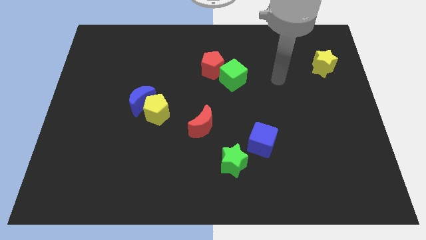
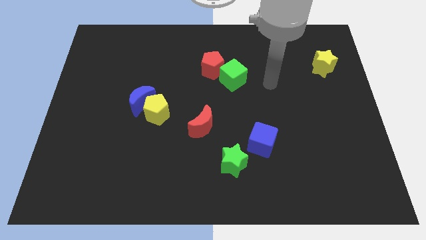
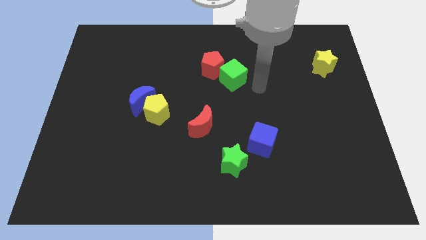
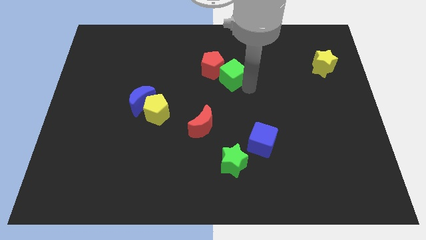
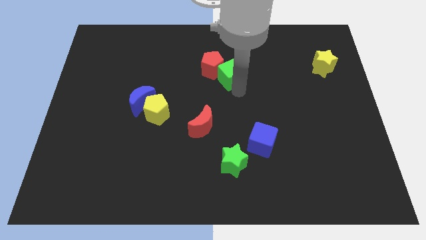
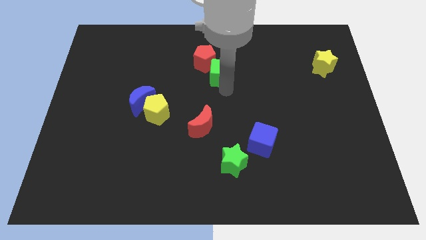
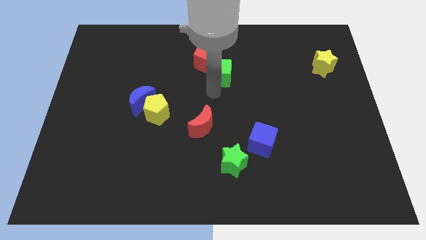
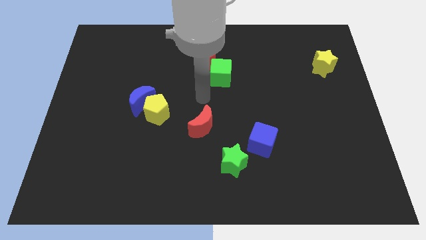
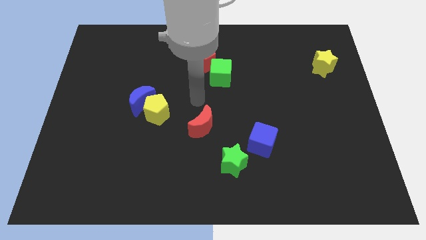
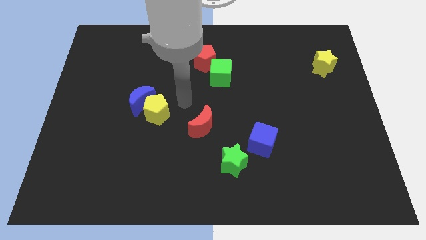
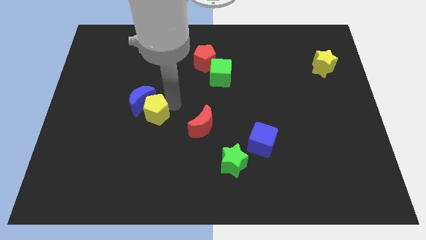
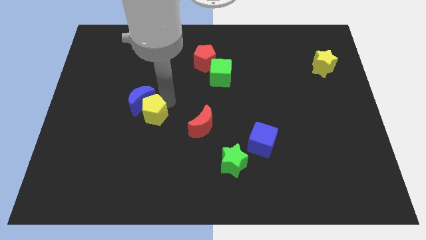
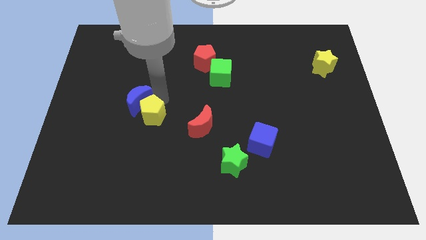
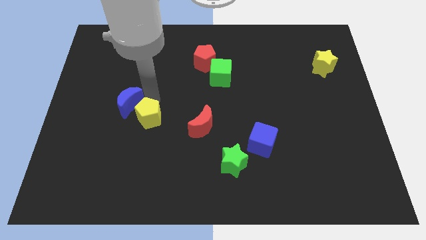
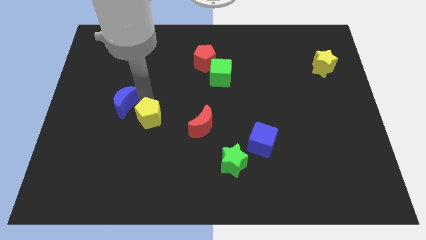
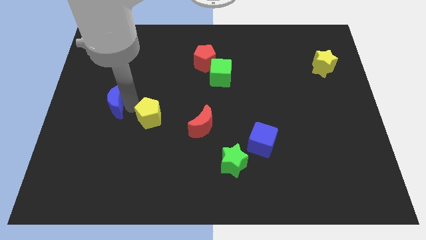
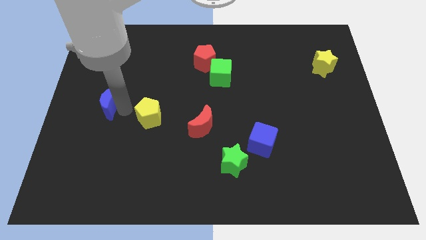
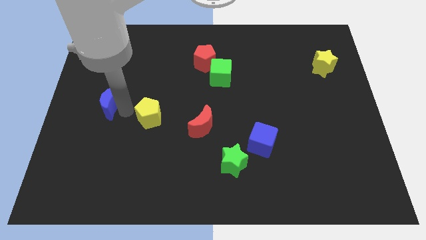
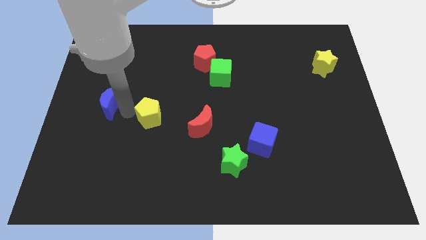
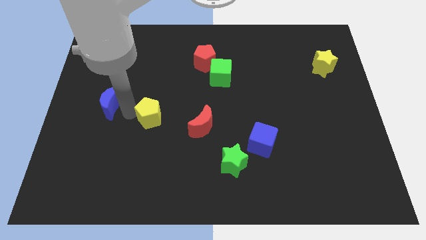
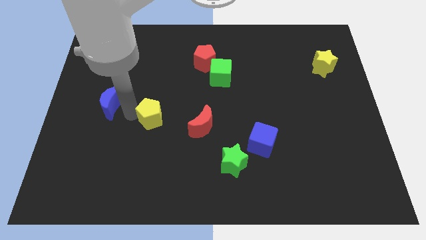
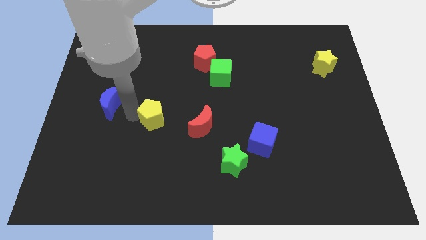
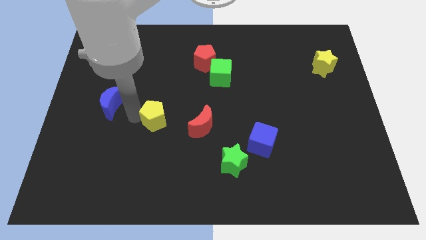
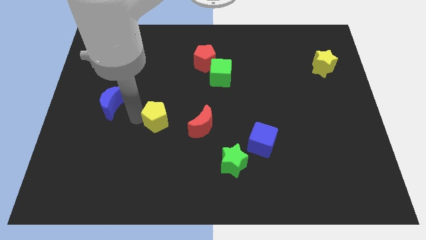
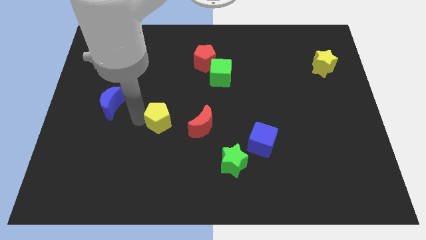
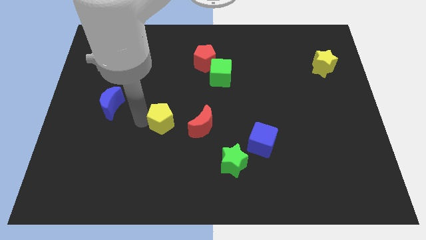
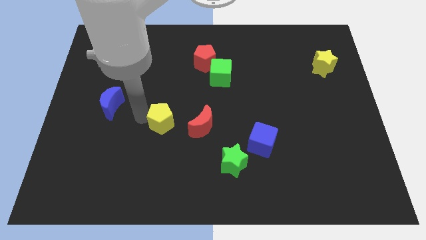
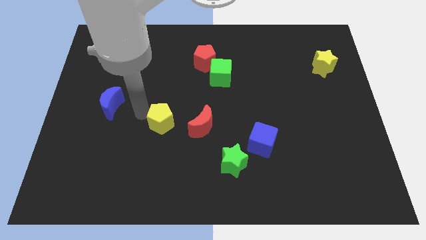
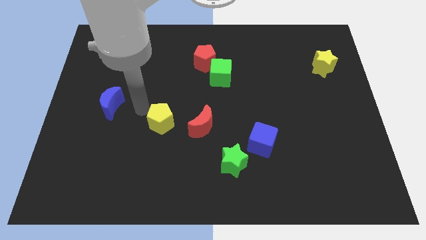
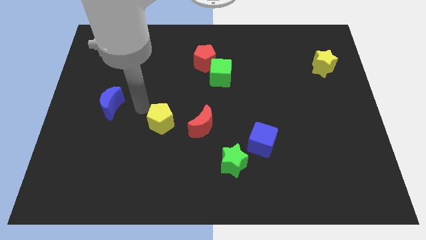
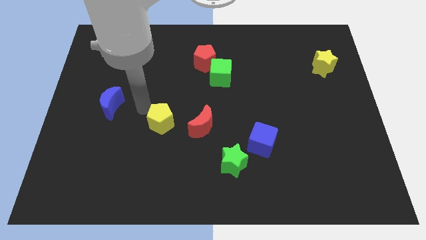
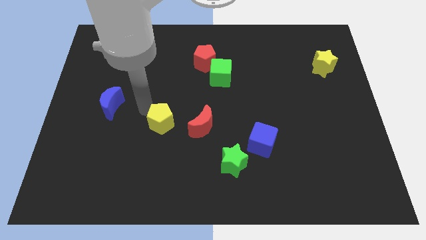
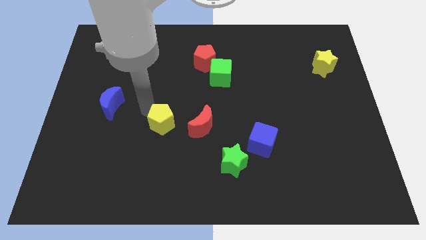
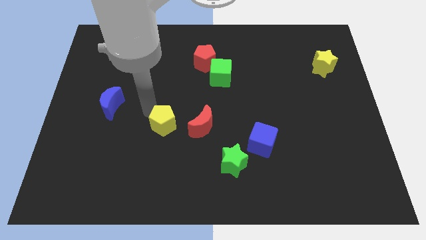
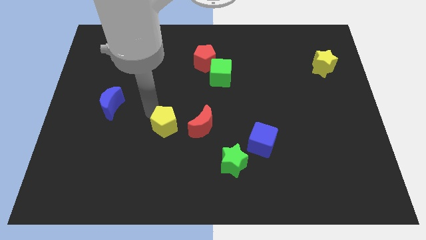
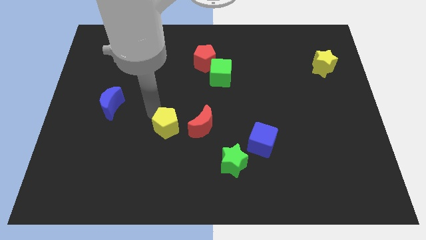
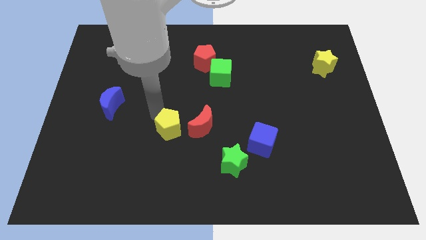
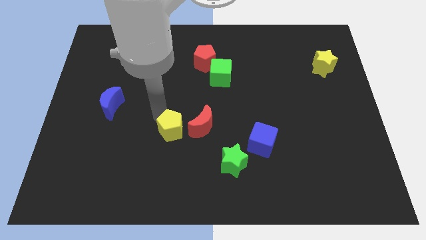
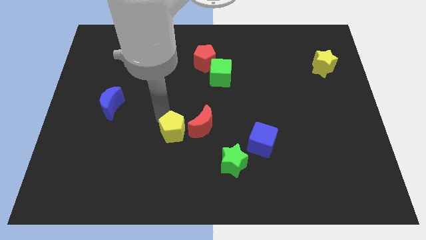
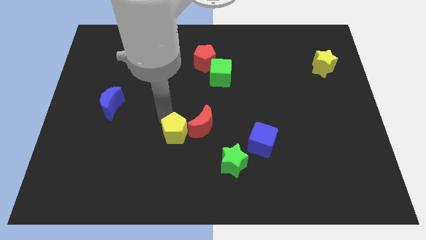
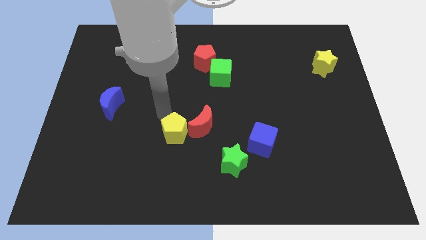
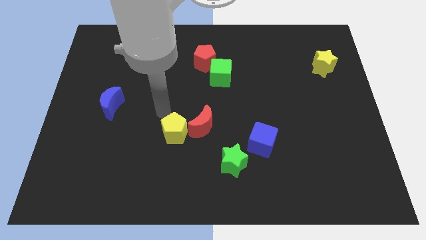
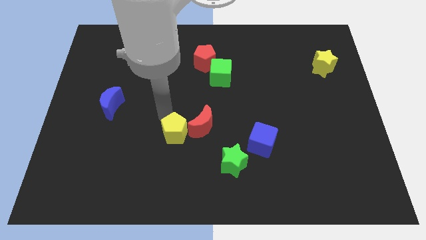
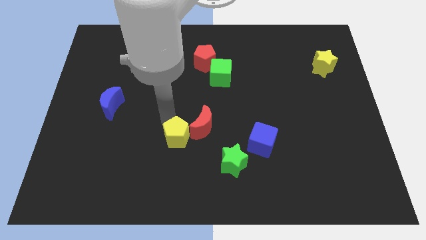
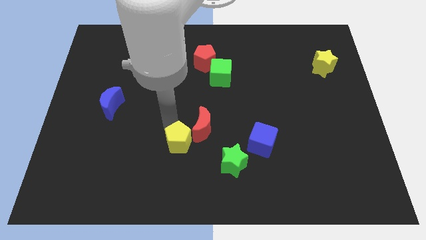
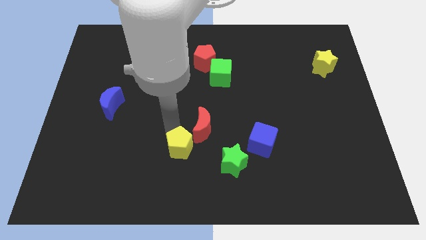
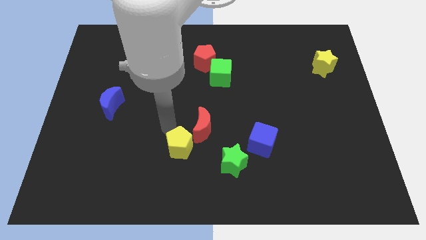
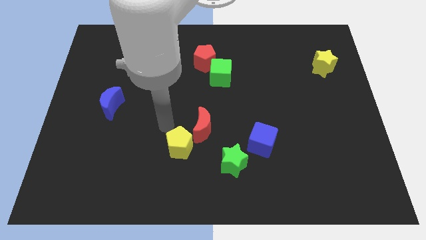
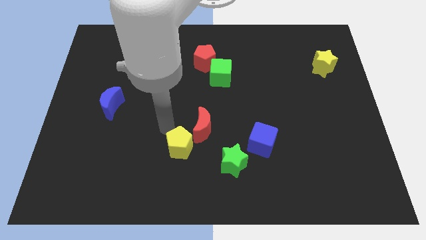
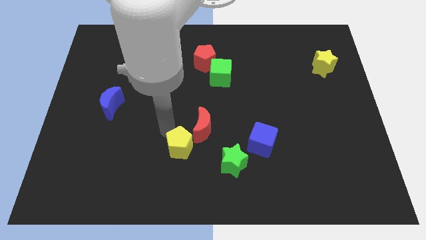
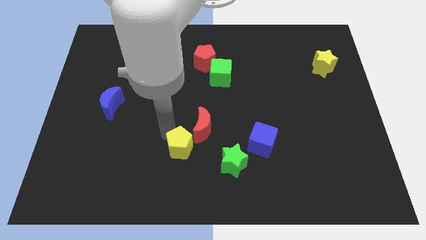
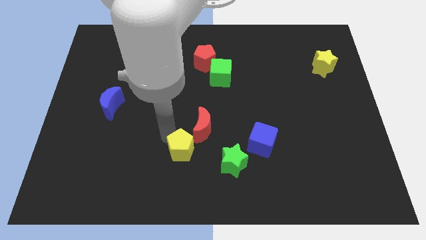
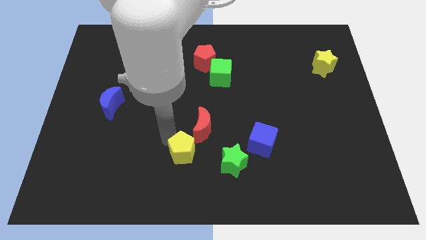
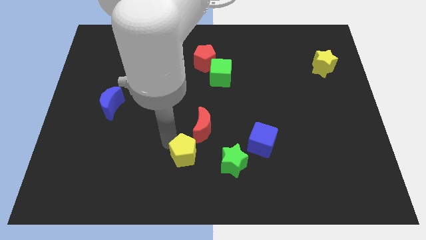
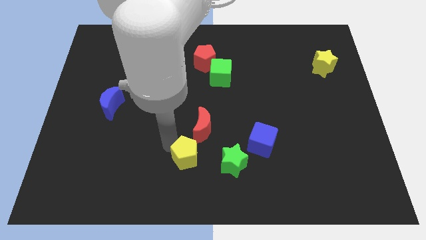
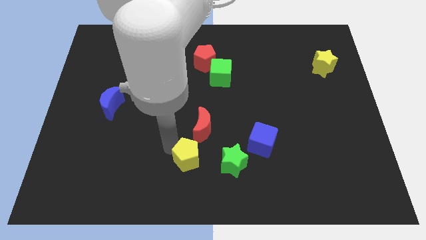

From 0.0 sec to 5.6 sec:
push the yellow pentagon to the bottom side
